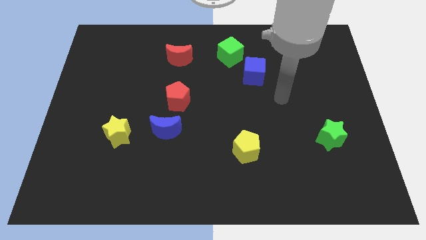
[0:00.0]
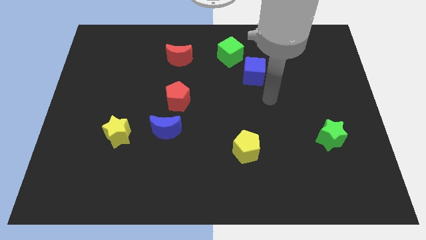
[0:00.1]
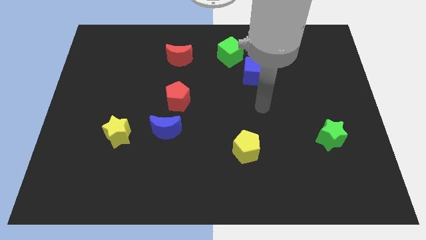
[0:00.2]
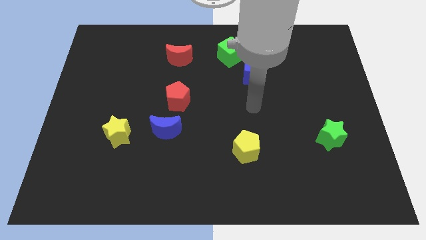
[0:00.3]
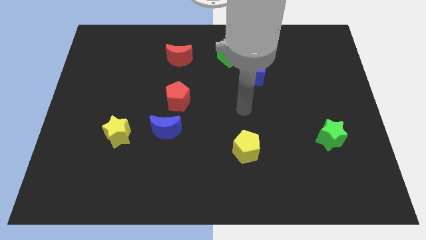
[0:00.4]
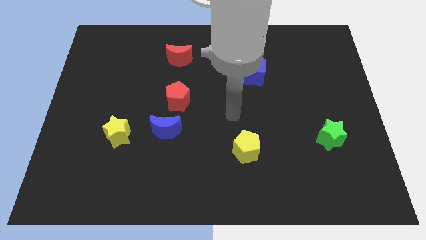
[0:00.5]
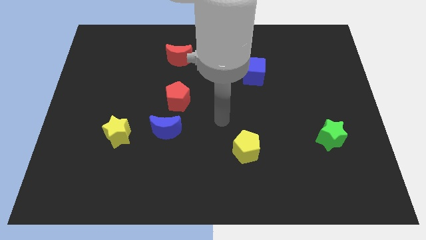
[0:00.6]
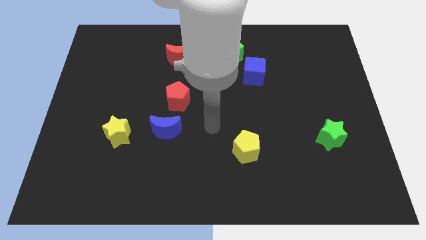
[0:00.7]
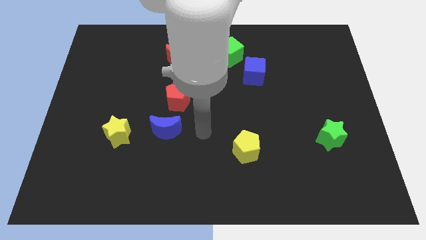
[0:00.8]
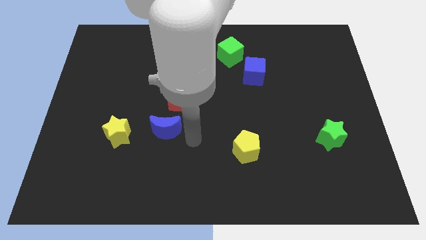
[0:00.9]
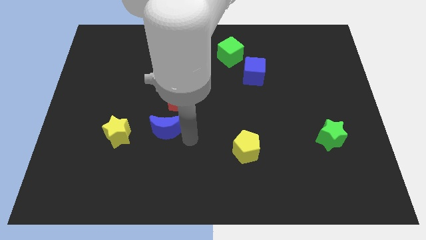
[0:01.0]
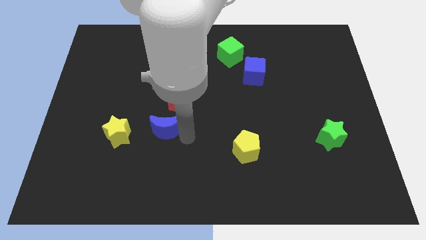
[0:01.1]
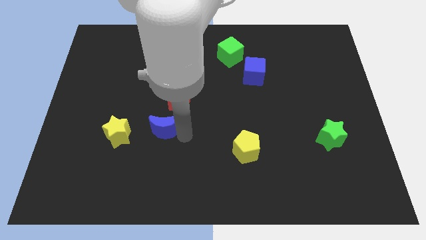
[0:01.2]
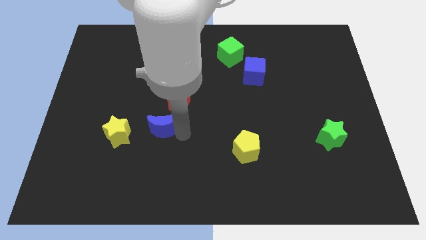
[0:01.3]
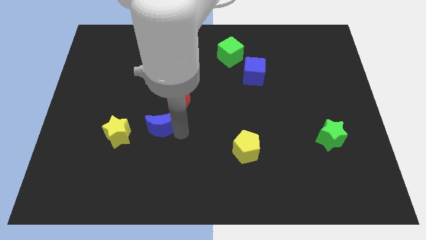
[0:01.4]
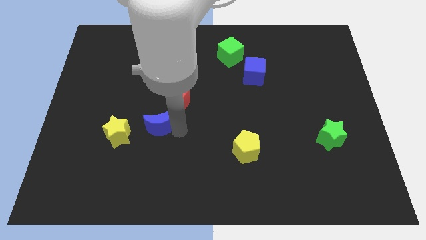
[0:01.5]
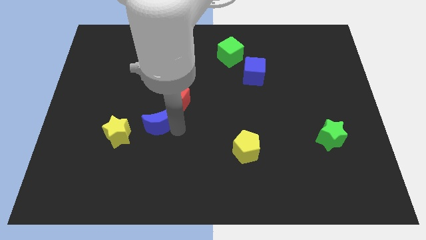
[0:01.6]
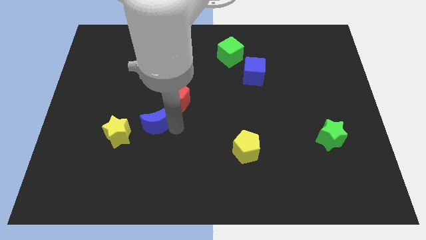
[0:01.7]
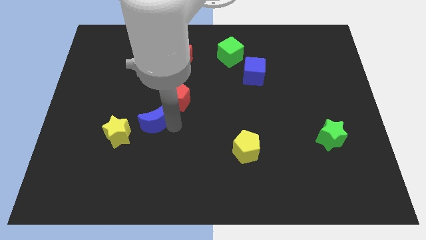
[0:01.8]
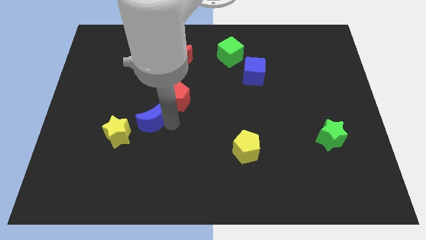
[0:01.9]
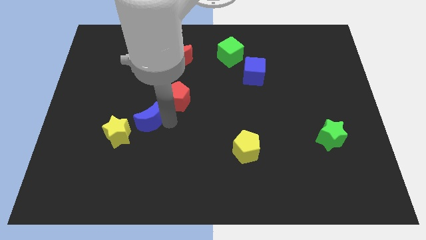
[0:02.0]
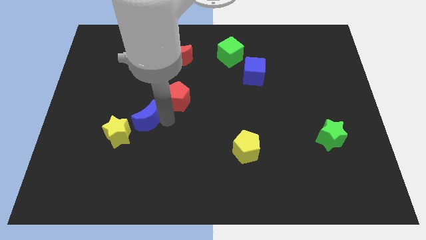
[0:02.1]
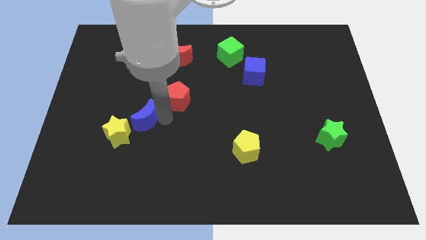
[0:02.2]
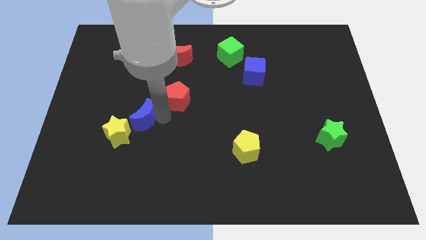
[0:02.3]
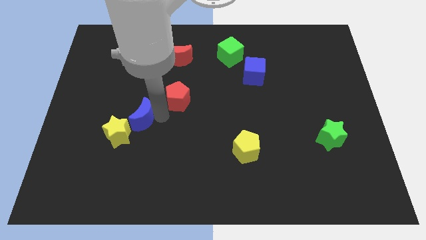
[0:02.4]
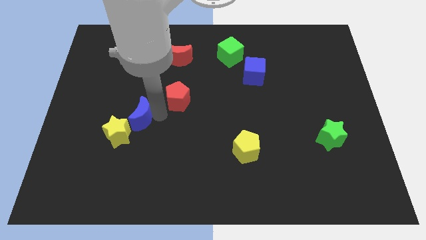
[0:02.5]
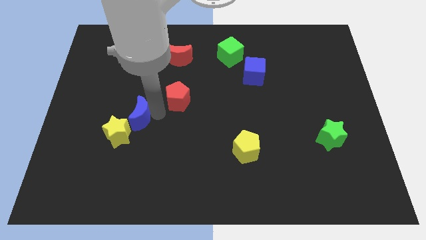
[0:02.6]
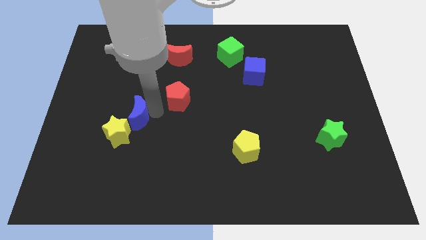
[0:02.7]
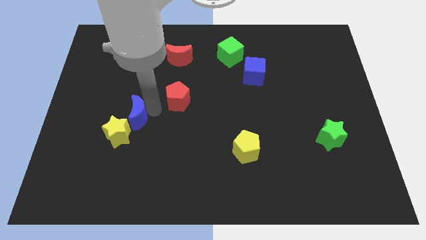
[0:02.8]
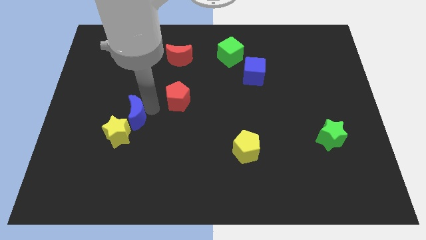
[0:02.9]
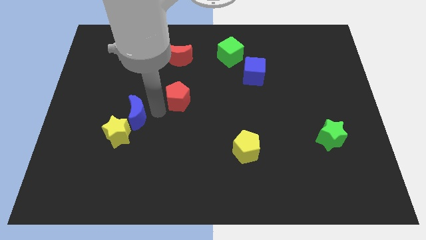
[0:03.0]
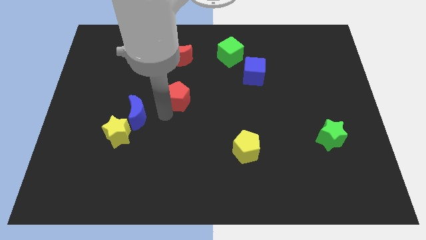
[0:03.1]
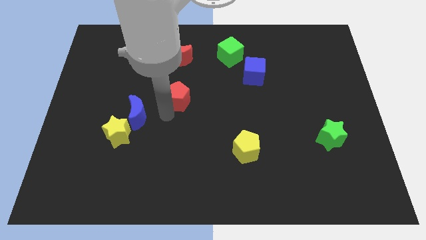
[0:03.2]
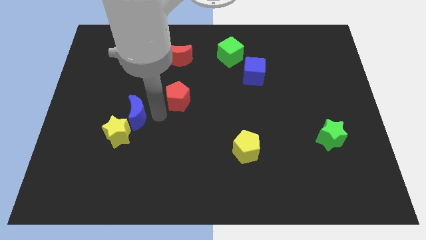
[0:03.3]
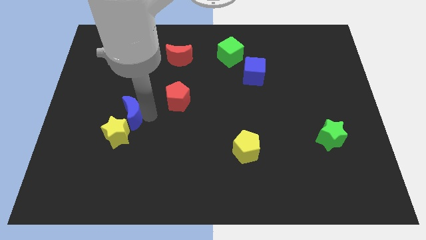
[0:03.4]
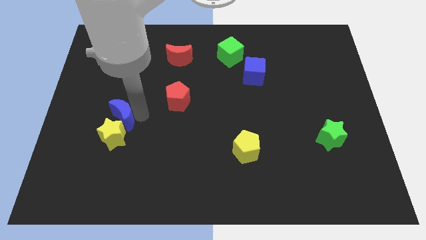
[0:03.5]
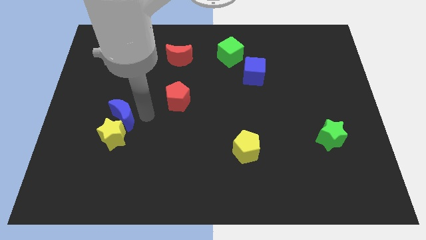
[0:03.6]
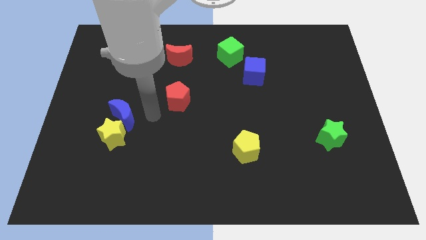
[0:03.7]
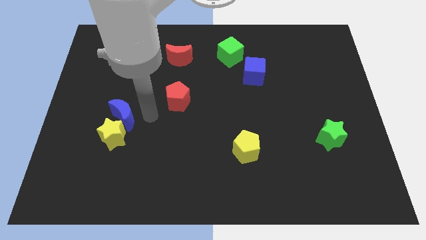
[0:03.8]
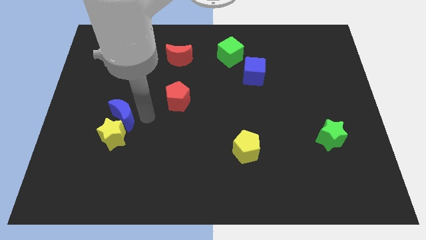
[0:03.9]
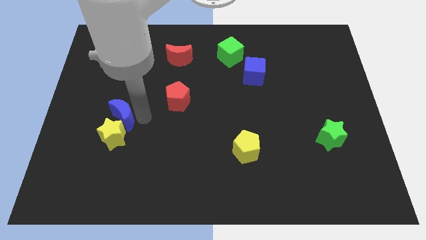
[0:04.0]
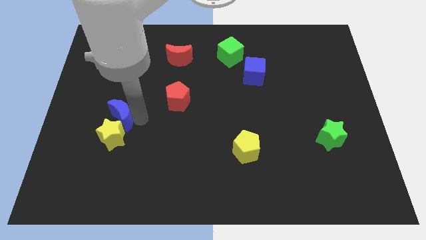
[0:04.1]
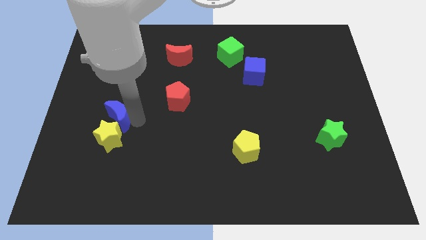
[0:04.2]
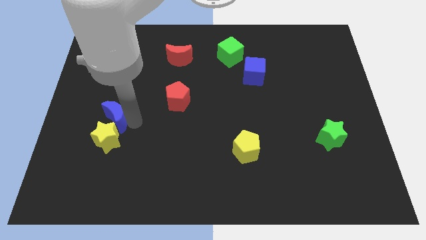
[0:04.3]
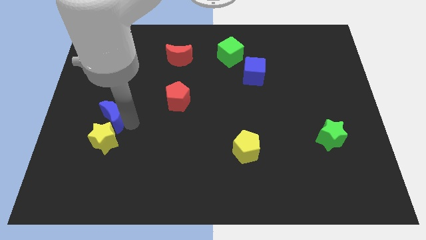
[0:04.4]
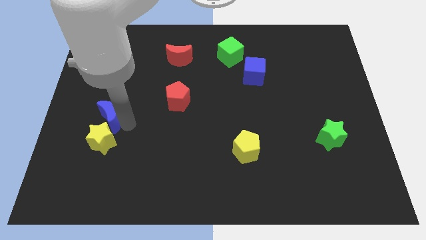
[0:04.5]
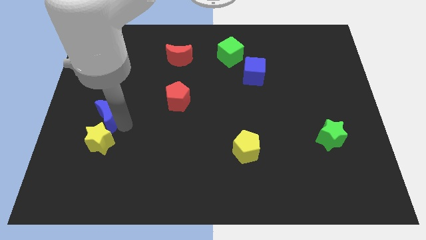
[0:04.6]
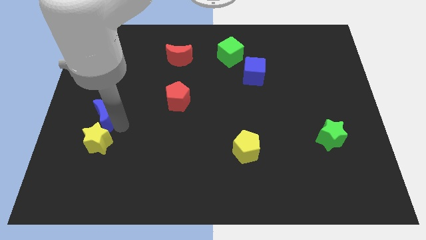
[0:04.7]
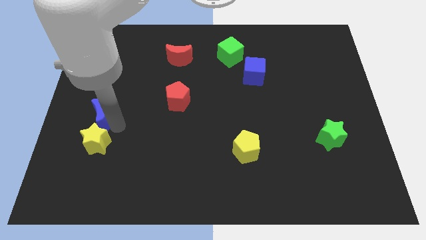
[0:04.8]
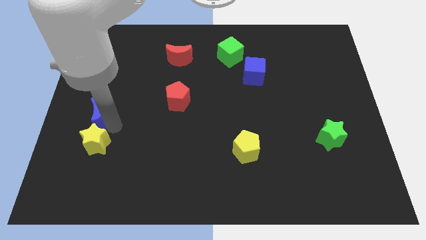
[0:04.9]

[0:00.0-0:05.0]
push the blue moon diagonally up and to the left of the yellow star

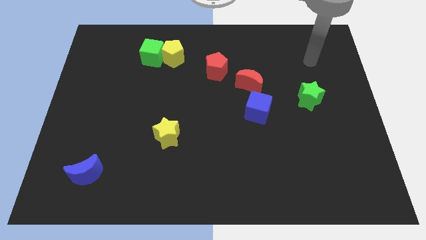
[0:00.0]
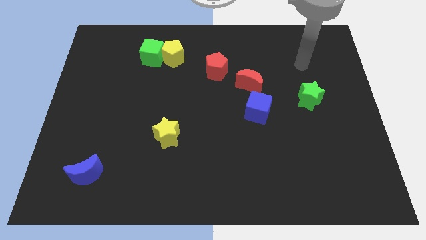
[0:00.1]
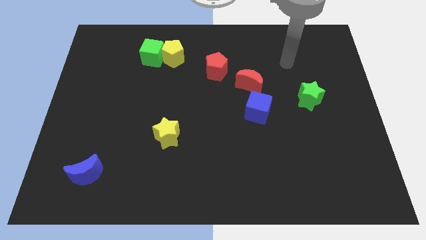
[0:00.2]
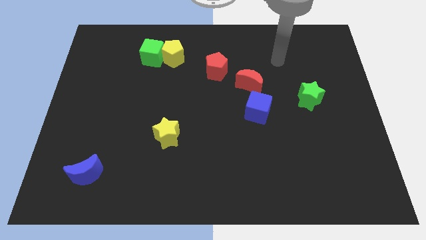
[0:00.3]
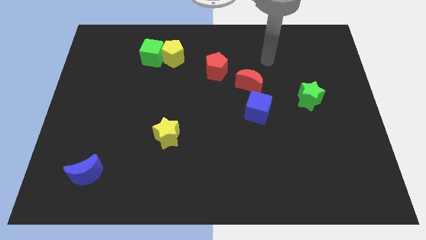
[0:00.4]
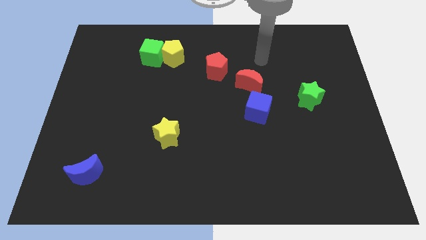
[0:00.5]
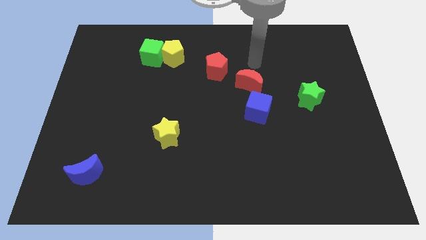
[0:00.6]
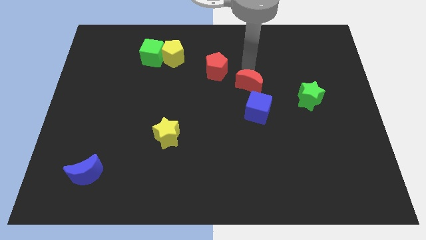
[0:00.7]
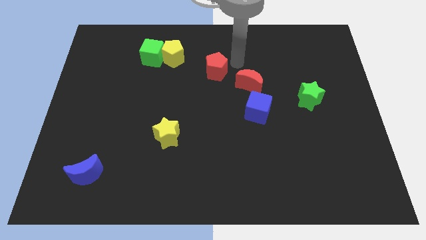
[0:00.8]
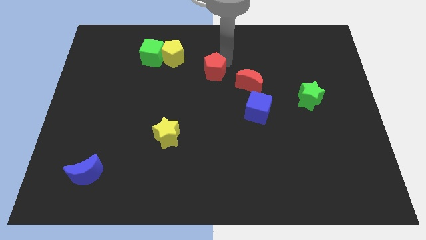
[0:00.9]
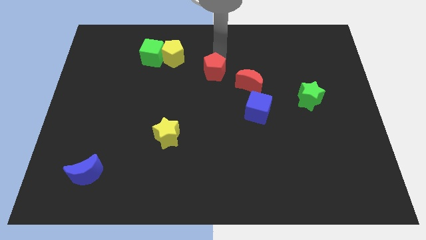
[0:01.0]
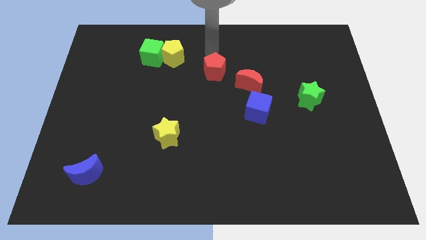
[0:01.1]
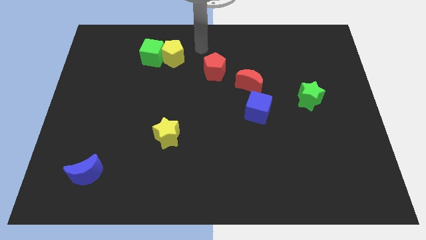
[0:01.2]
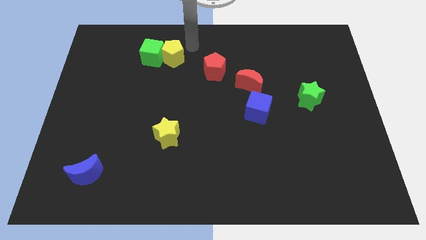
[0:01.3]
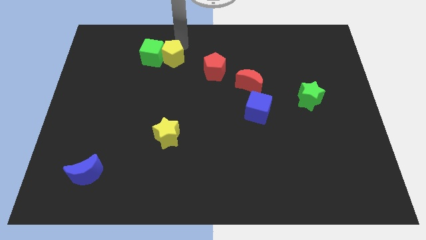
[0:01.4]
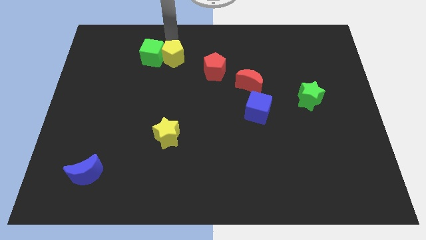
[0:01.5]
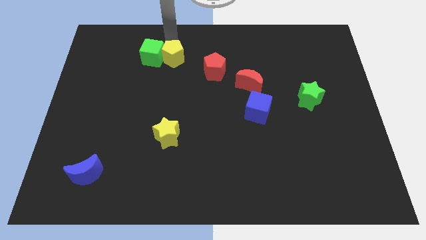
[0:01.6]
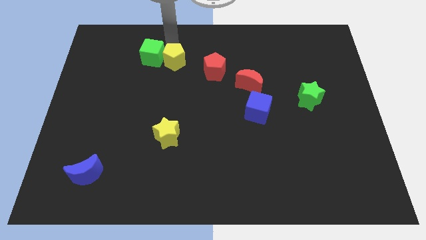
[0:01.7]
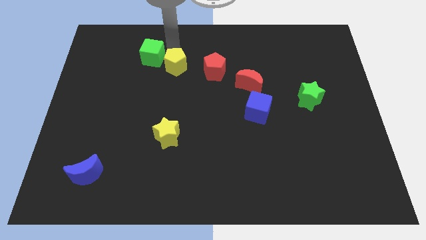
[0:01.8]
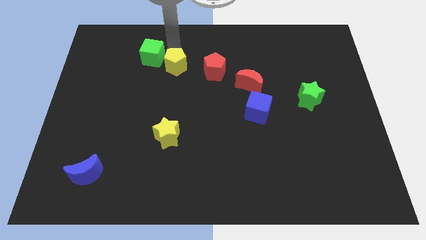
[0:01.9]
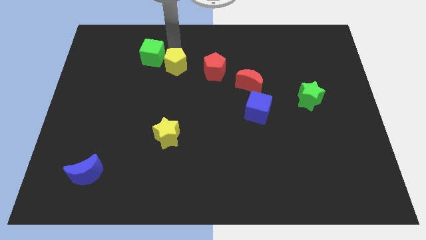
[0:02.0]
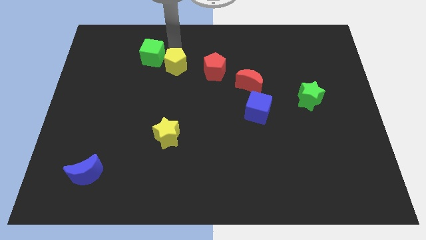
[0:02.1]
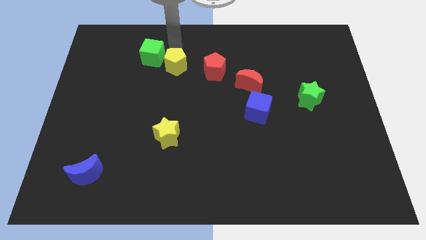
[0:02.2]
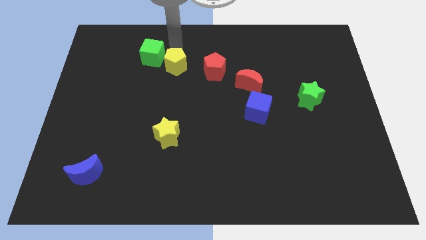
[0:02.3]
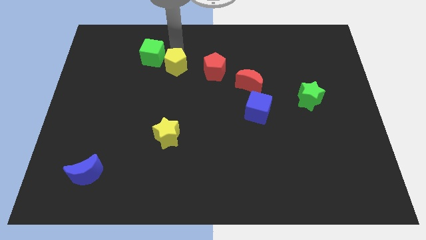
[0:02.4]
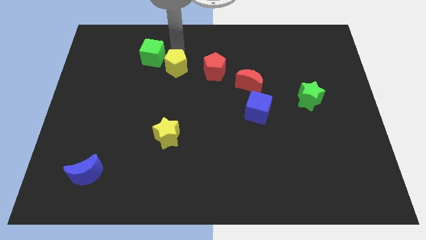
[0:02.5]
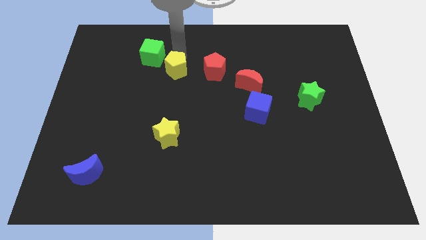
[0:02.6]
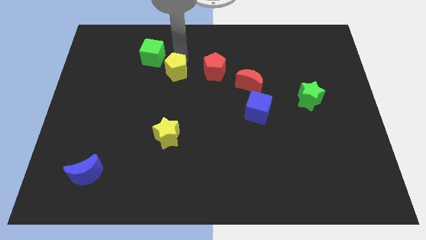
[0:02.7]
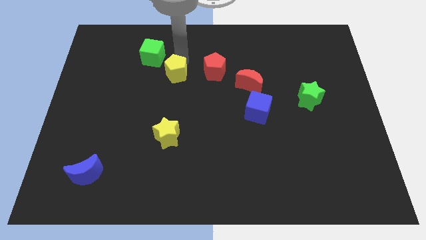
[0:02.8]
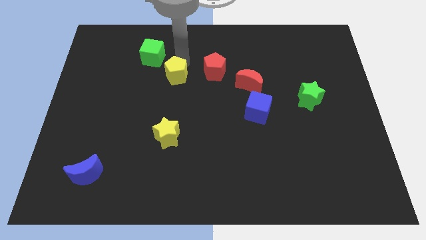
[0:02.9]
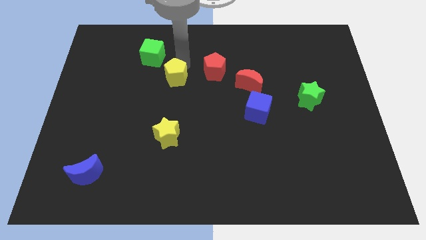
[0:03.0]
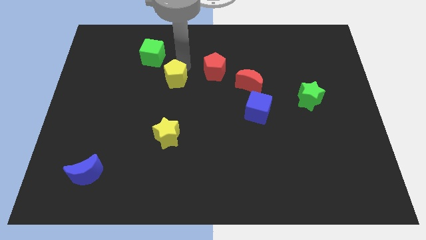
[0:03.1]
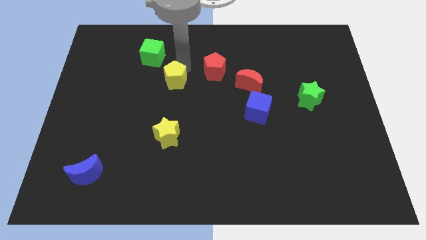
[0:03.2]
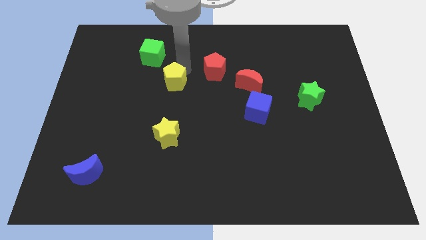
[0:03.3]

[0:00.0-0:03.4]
put the yellow pentagon above the yellow star
